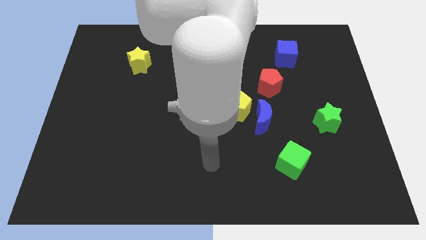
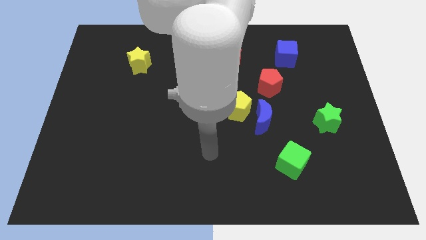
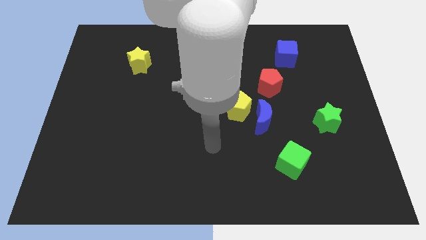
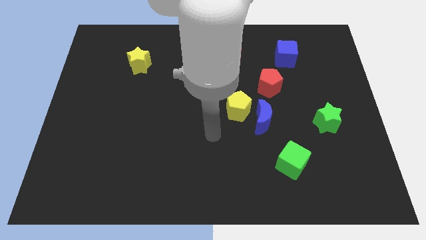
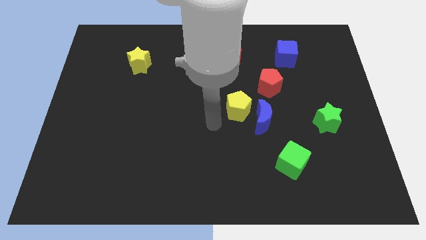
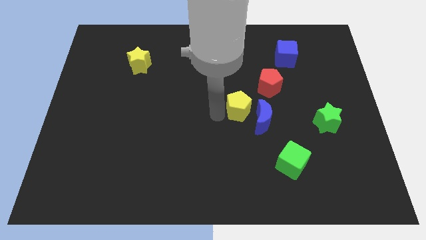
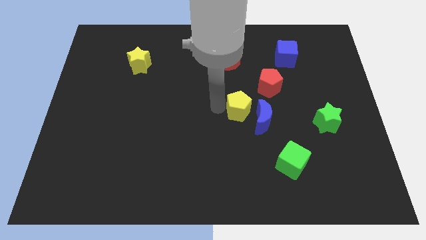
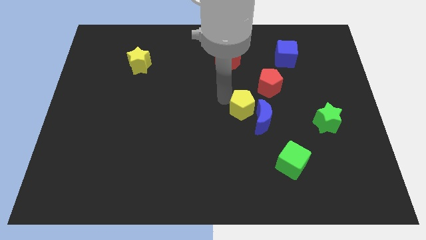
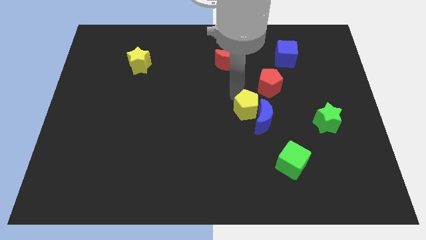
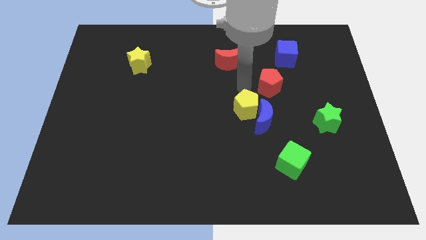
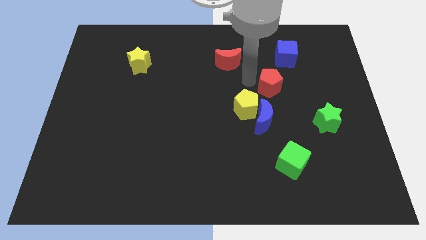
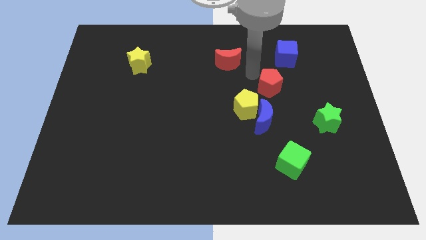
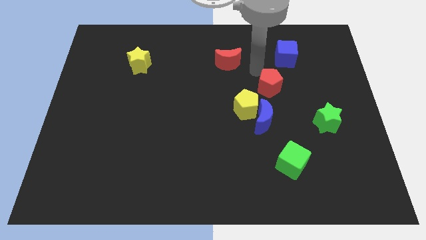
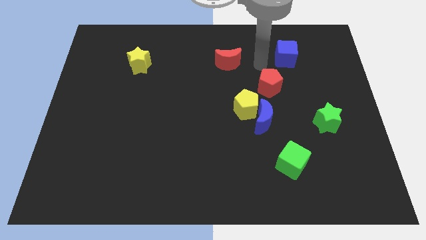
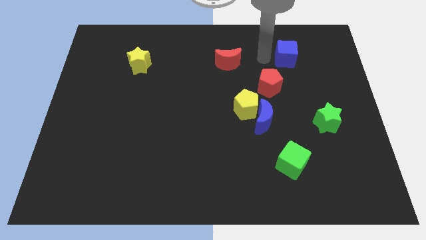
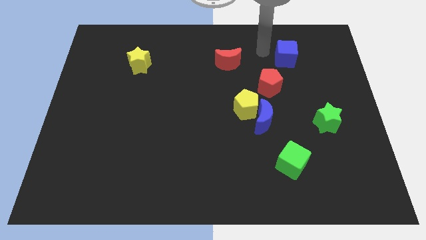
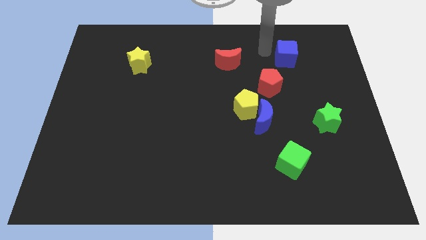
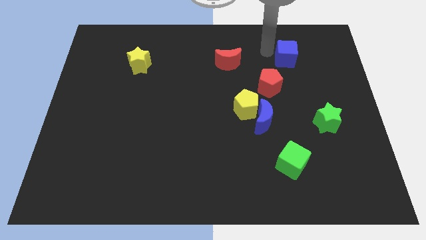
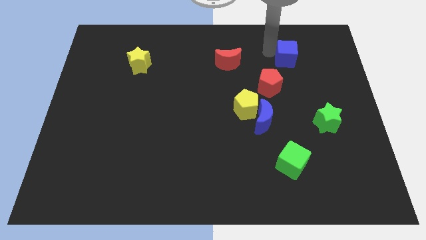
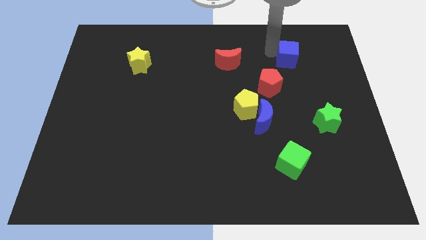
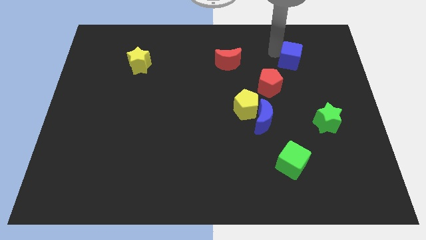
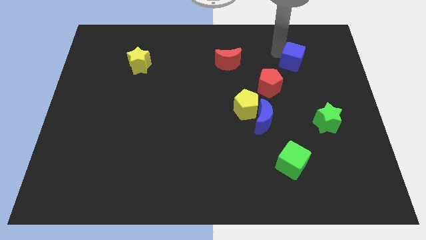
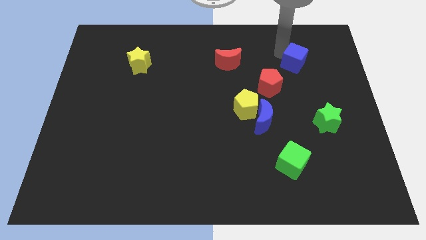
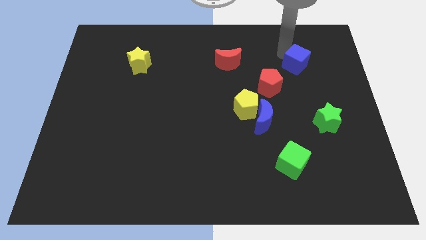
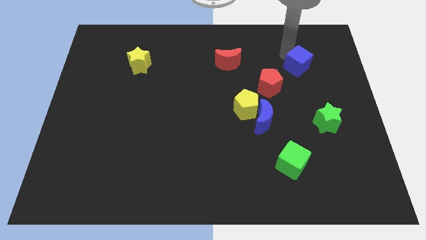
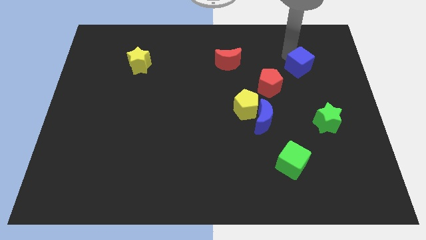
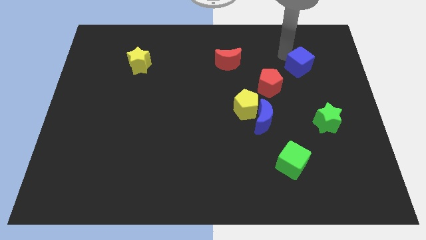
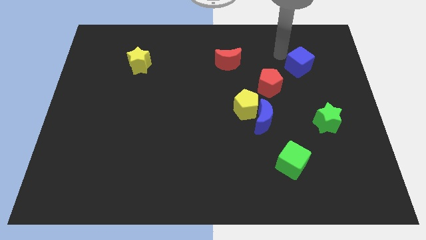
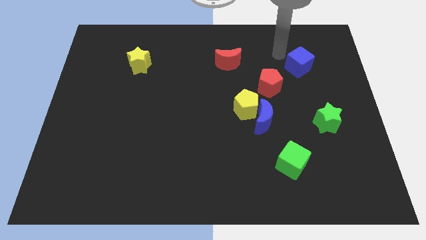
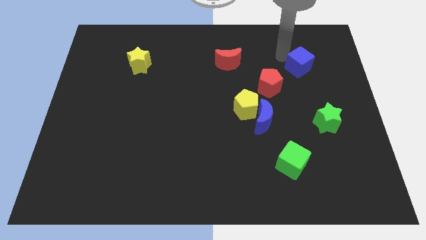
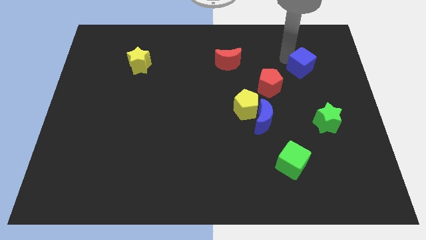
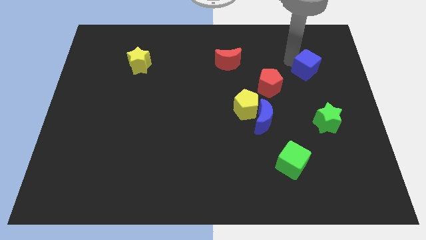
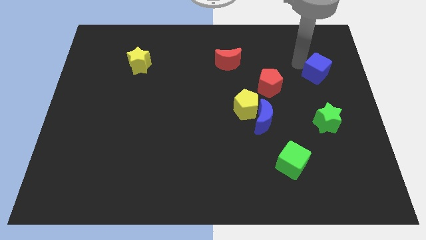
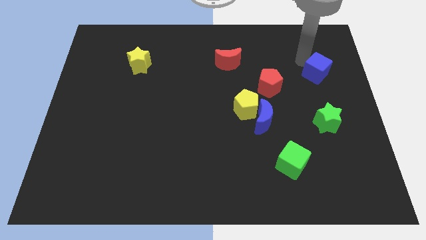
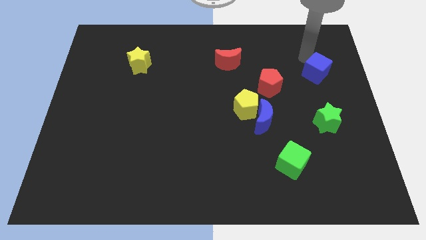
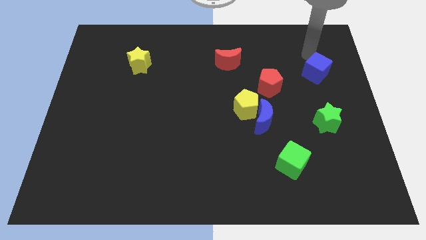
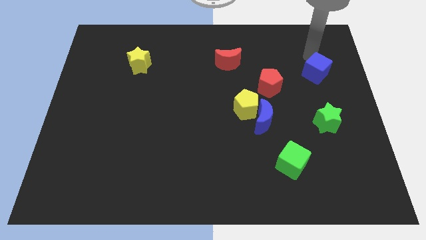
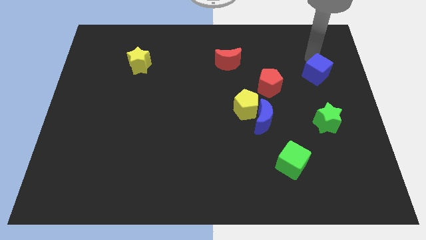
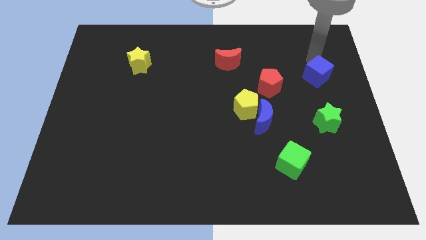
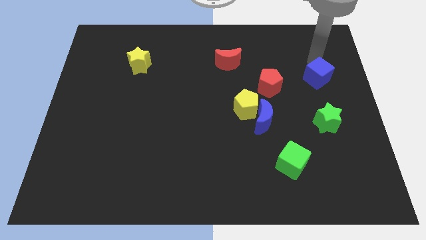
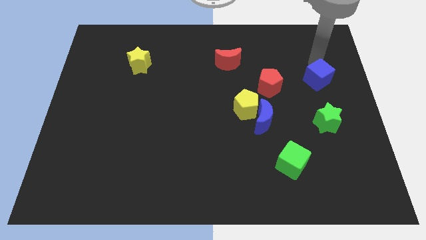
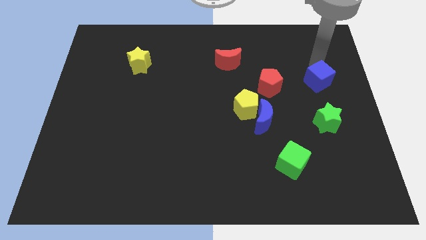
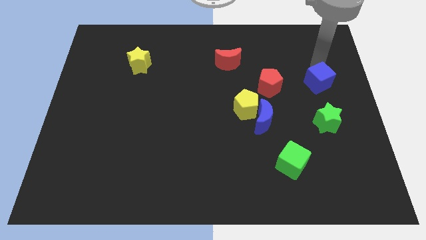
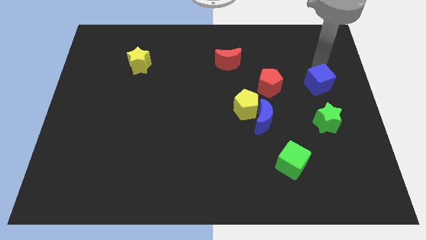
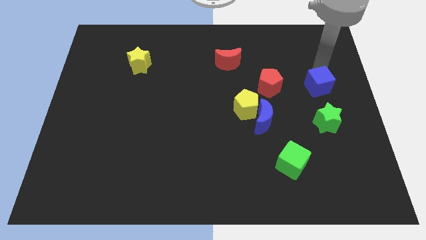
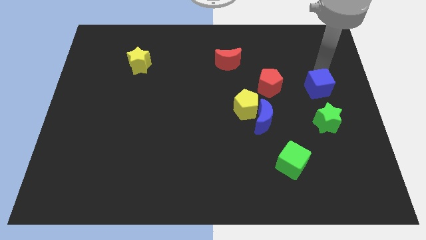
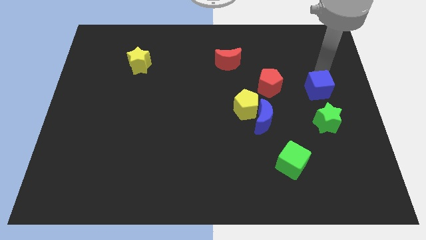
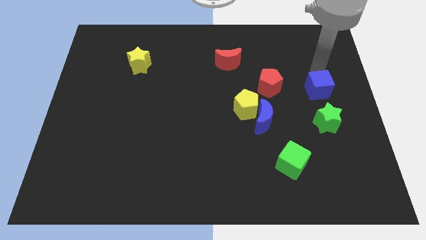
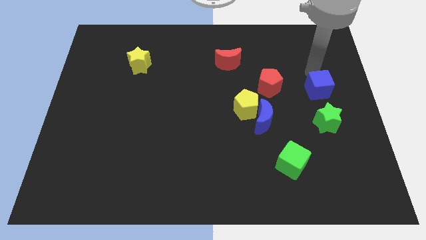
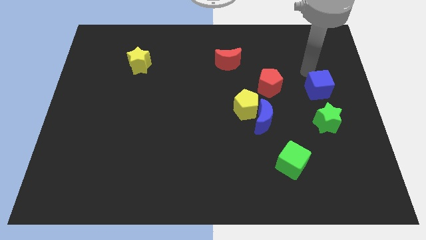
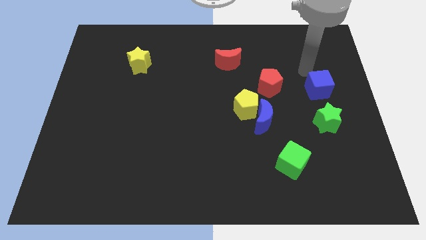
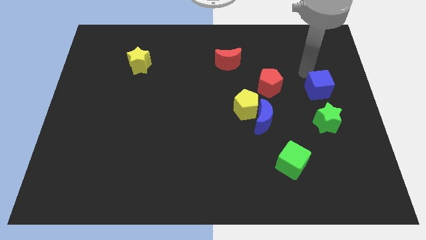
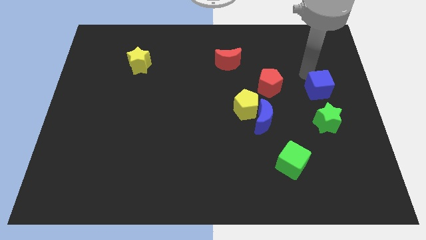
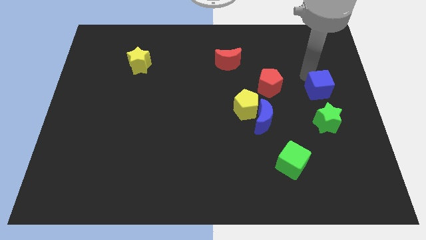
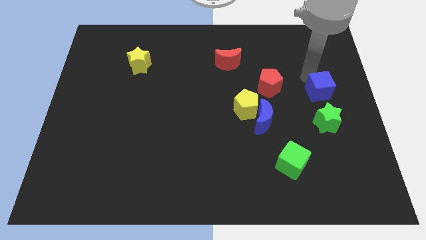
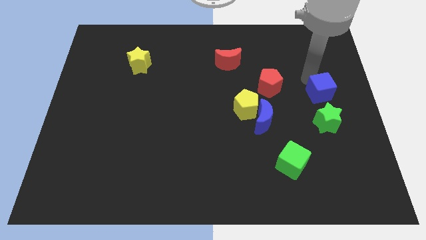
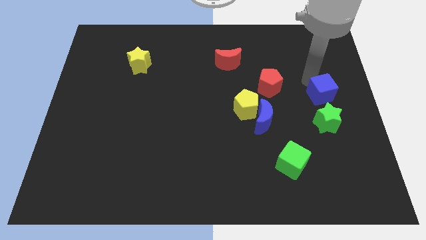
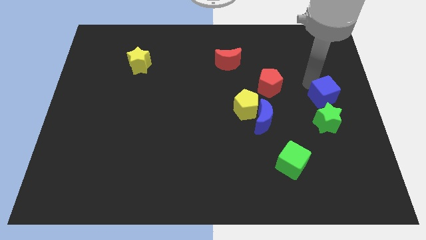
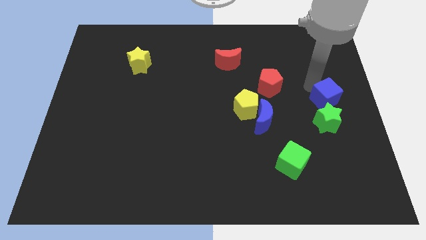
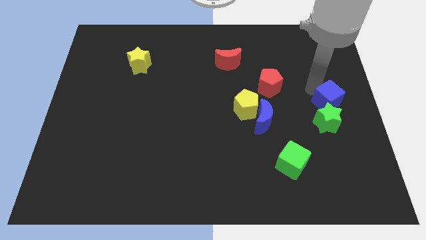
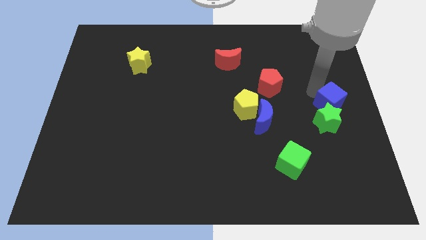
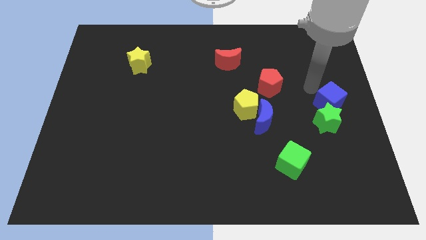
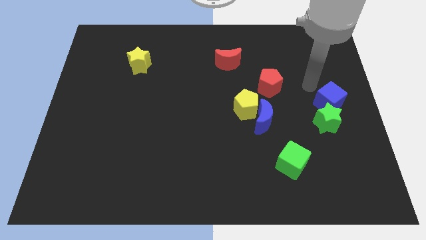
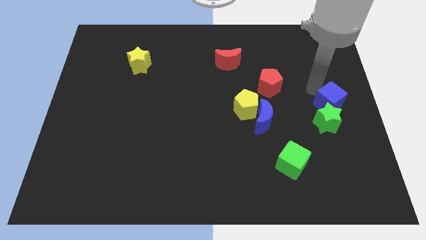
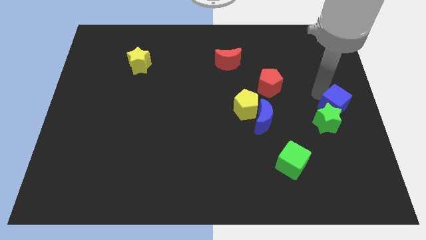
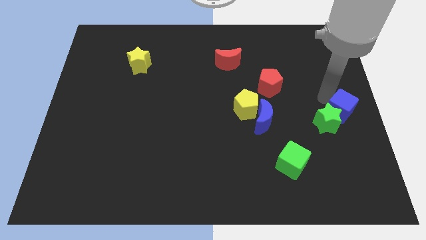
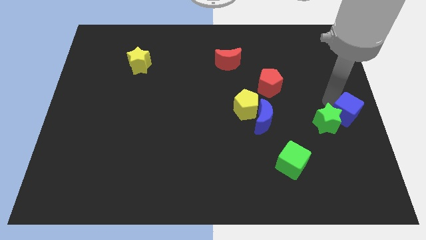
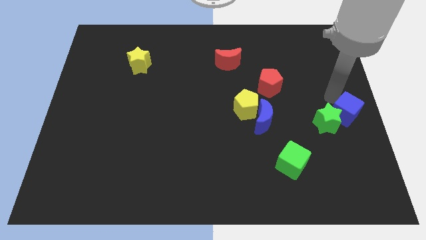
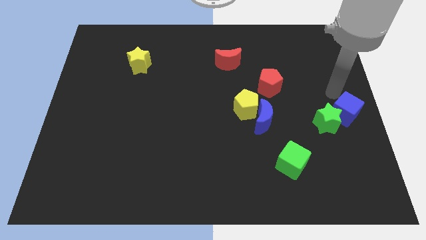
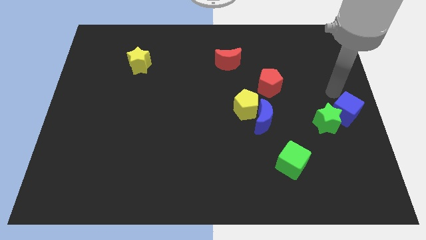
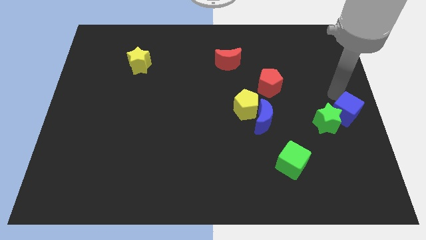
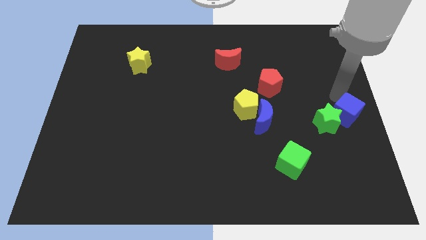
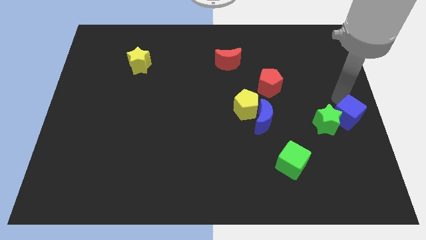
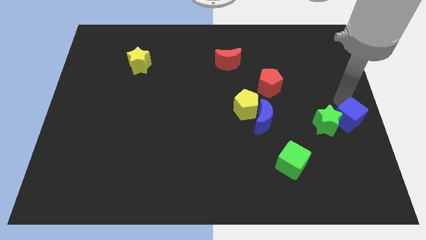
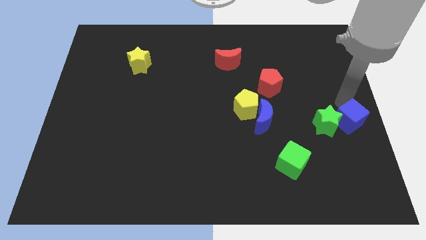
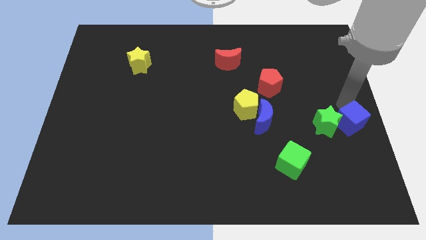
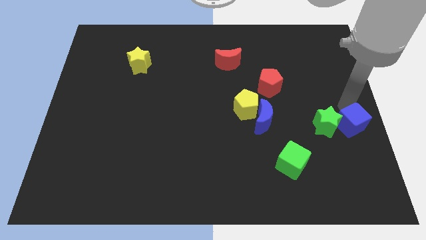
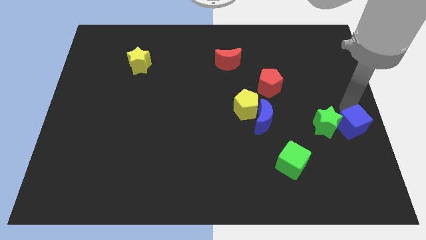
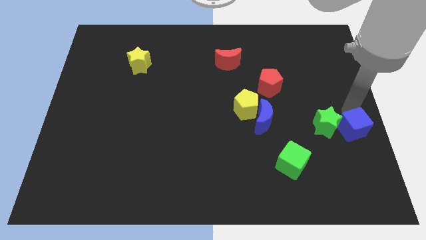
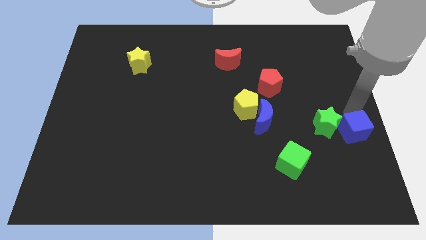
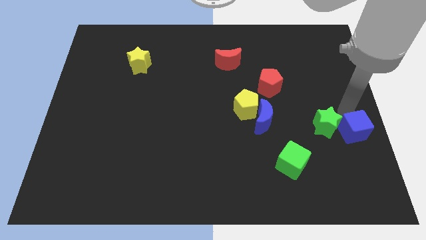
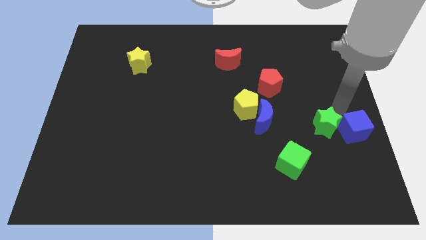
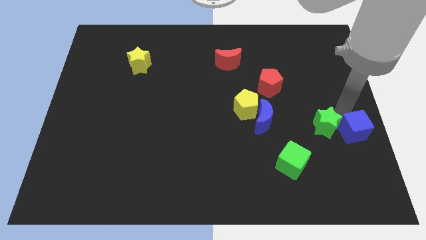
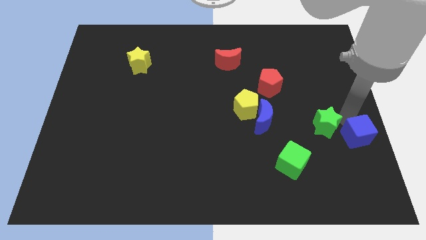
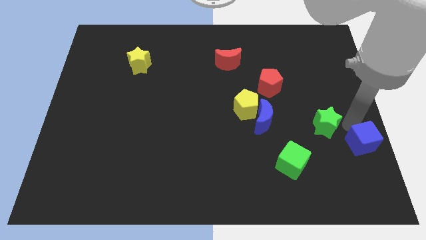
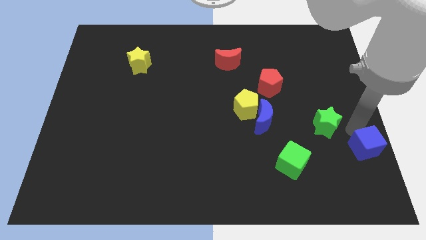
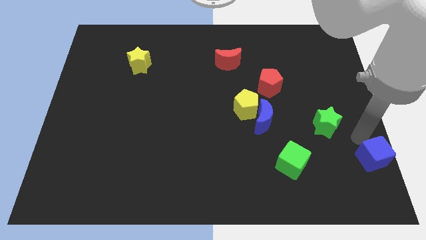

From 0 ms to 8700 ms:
push the blue cube to the bottom right of the board
